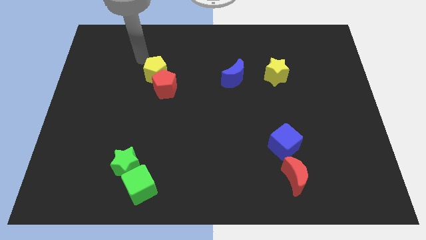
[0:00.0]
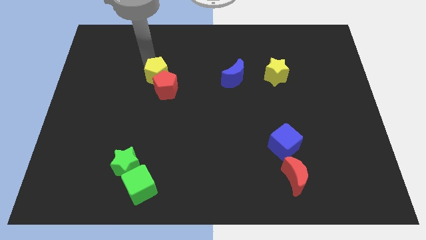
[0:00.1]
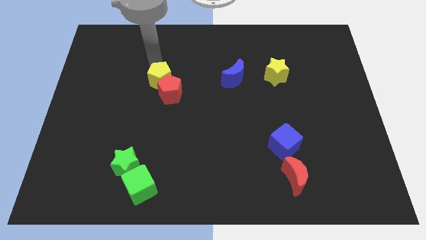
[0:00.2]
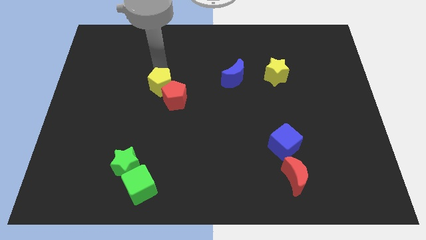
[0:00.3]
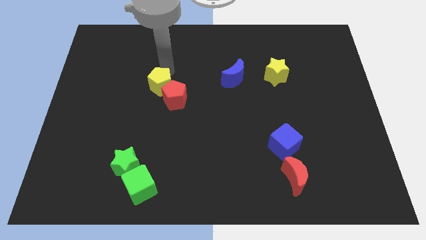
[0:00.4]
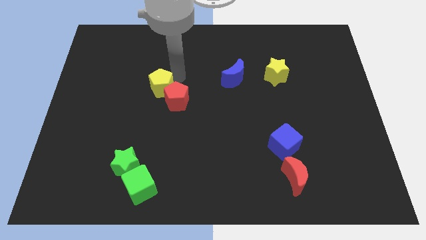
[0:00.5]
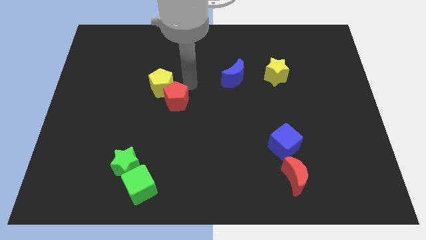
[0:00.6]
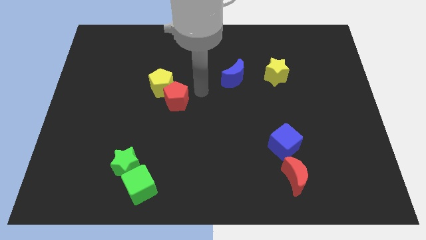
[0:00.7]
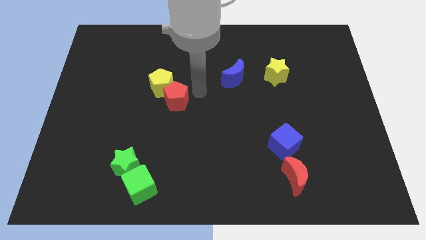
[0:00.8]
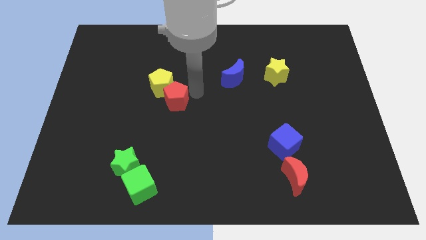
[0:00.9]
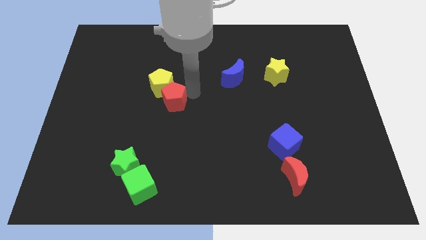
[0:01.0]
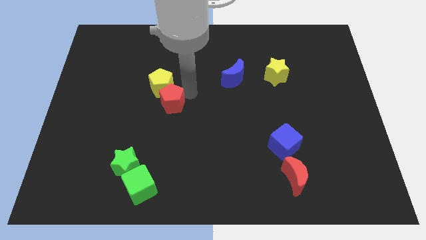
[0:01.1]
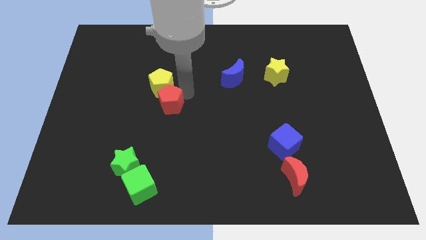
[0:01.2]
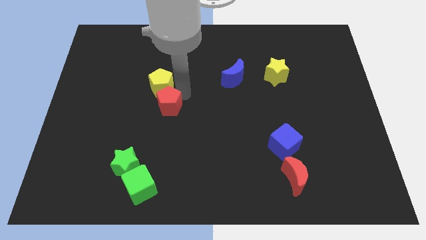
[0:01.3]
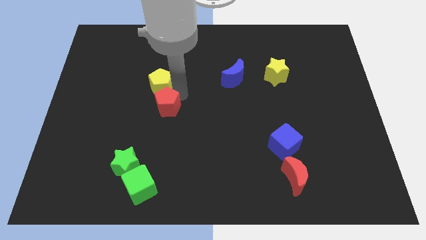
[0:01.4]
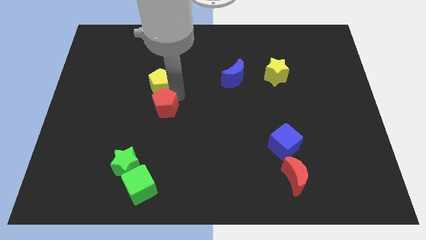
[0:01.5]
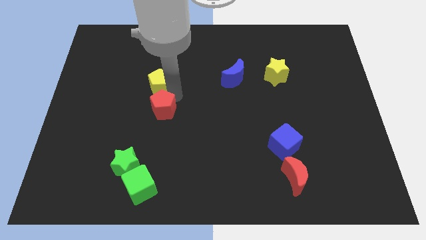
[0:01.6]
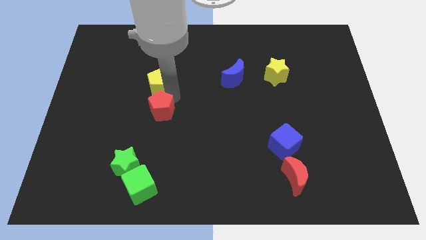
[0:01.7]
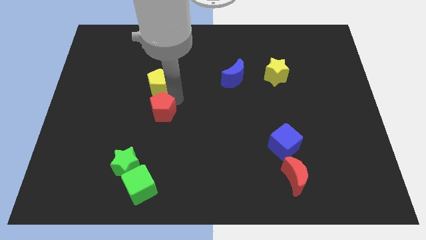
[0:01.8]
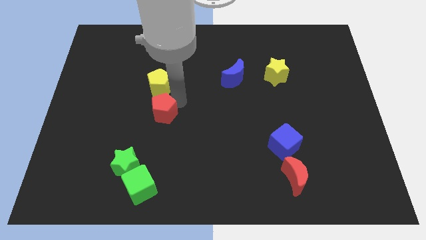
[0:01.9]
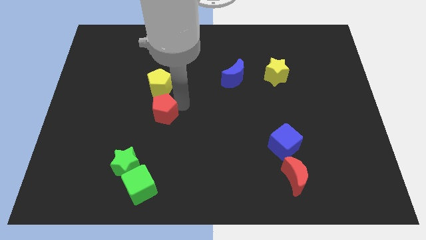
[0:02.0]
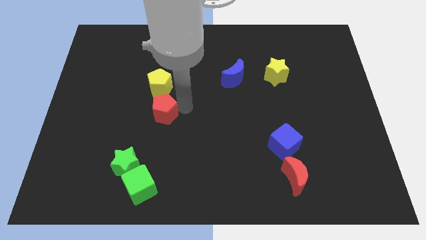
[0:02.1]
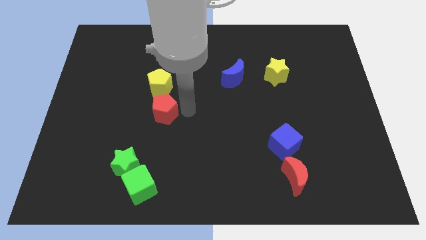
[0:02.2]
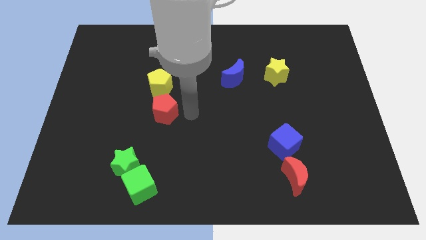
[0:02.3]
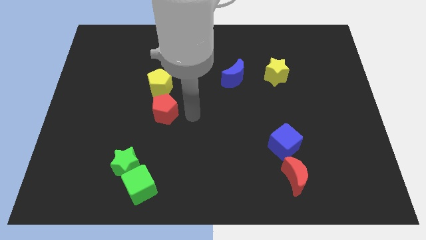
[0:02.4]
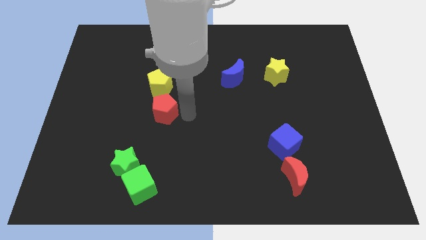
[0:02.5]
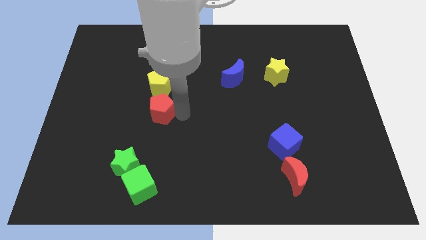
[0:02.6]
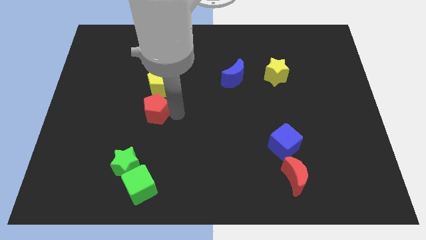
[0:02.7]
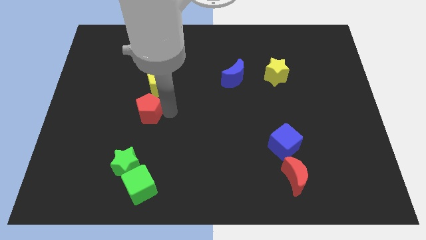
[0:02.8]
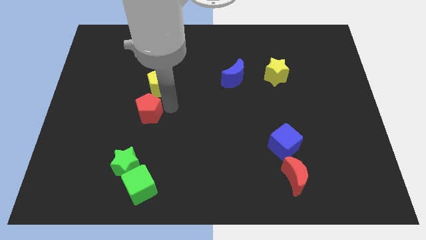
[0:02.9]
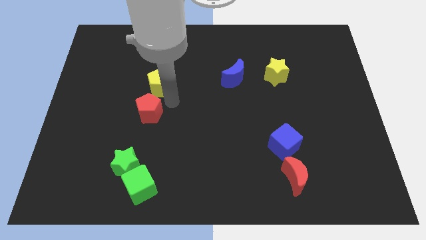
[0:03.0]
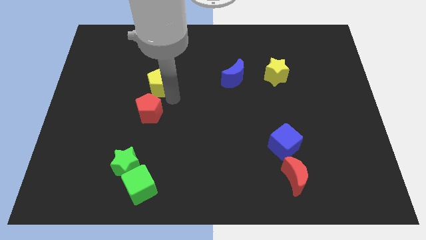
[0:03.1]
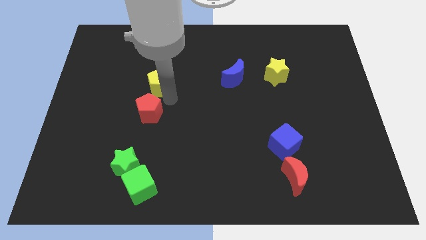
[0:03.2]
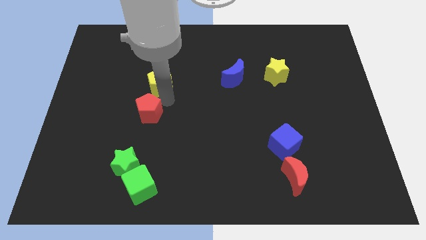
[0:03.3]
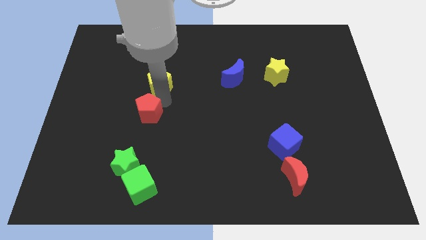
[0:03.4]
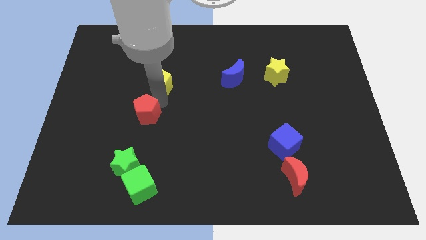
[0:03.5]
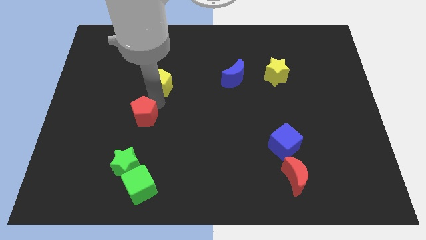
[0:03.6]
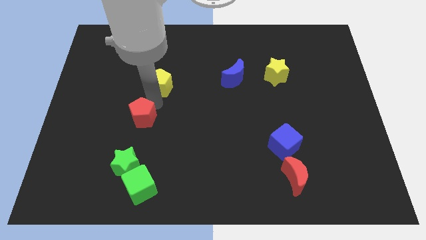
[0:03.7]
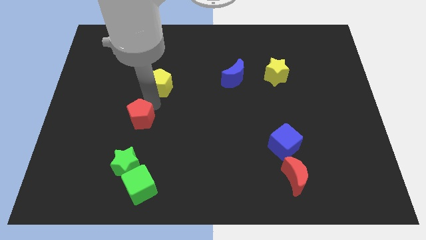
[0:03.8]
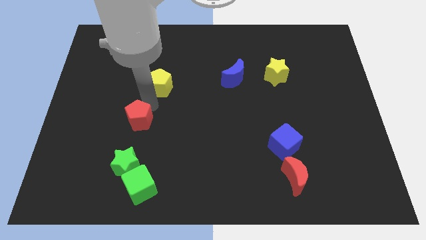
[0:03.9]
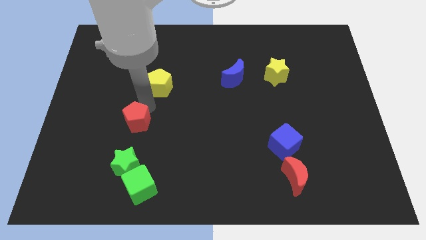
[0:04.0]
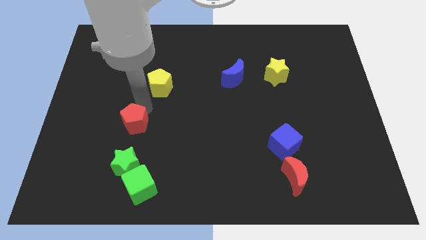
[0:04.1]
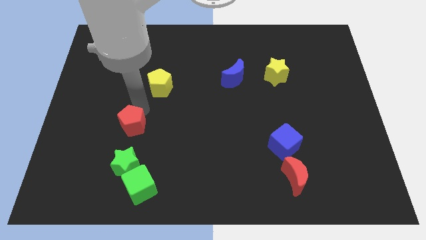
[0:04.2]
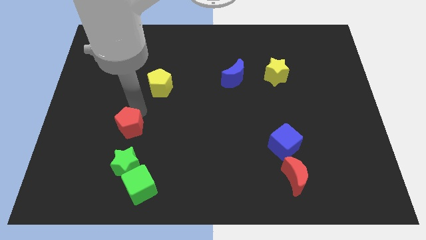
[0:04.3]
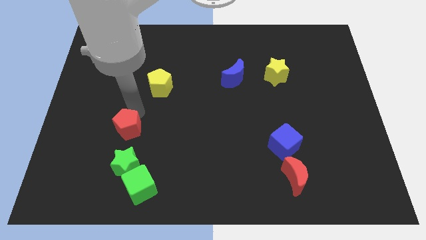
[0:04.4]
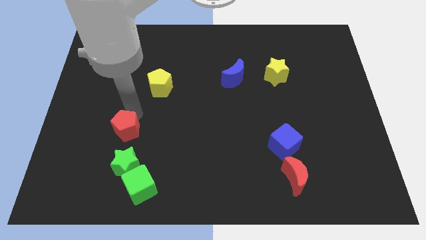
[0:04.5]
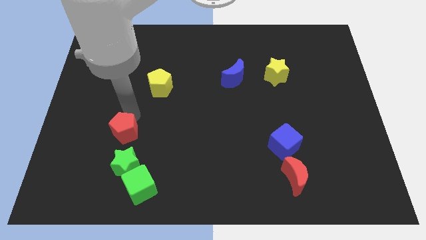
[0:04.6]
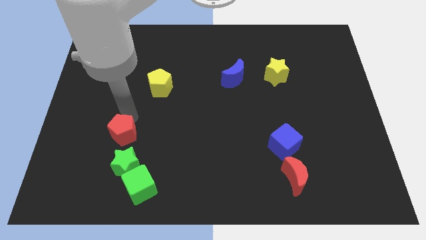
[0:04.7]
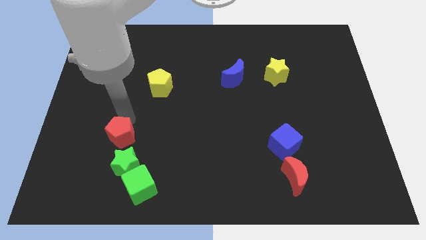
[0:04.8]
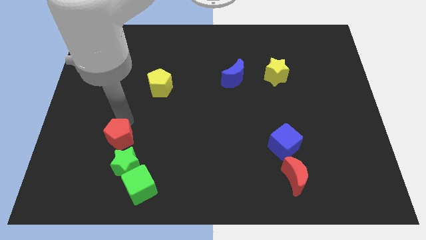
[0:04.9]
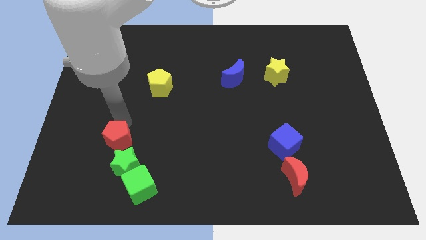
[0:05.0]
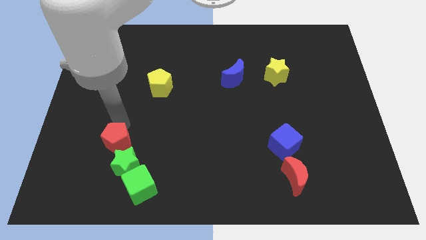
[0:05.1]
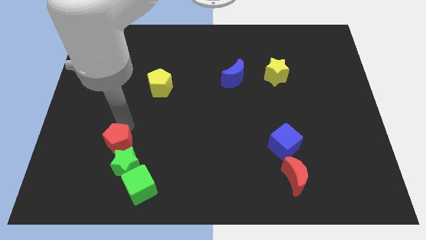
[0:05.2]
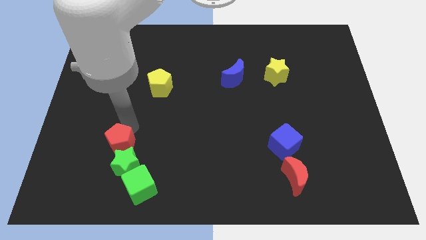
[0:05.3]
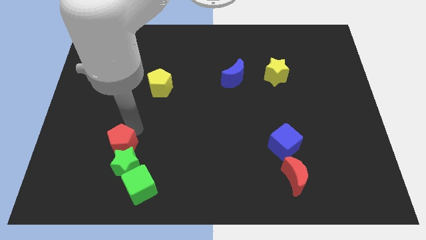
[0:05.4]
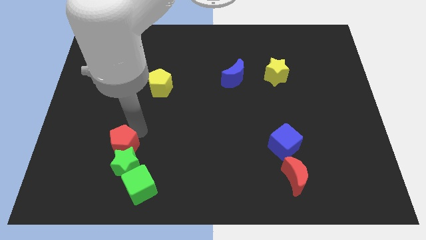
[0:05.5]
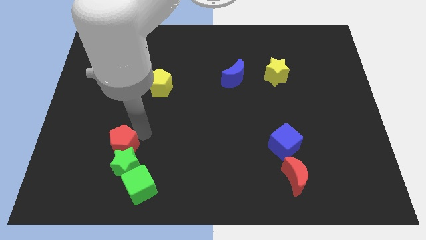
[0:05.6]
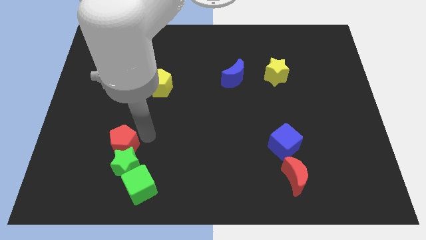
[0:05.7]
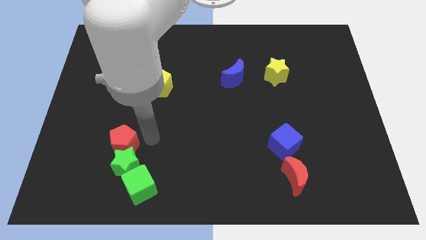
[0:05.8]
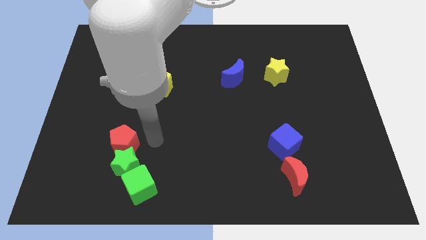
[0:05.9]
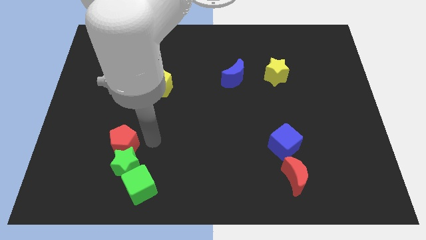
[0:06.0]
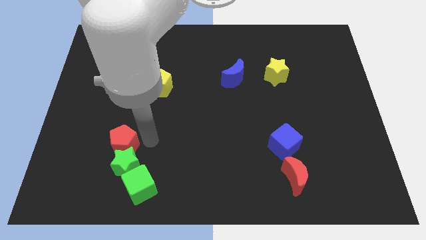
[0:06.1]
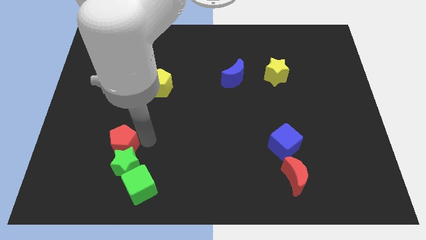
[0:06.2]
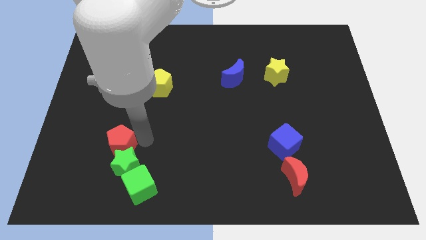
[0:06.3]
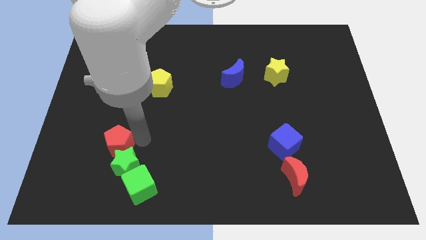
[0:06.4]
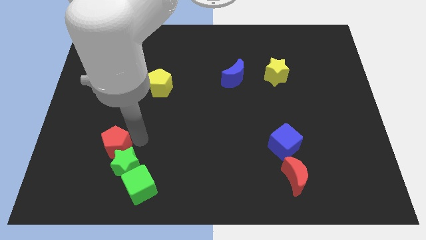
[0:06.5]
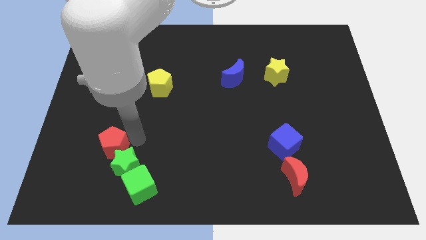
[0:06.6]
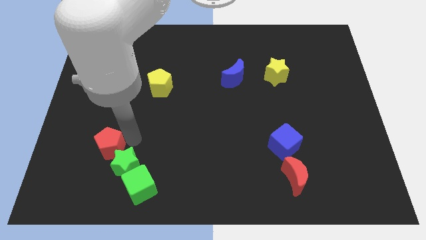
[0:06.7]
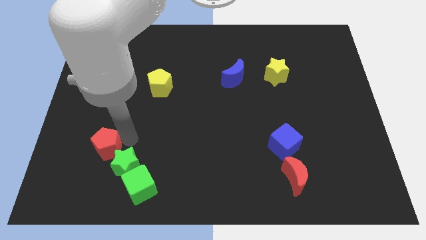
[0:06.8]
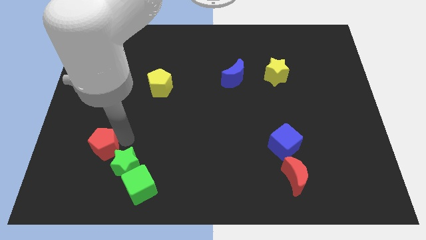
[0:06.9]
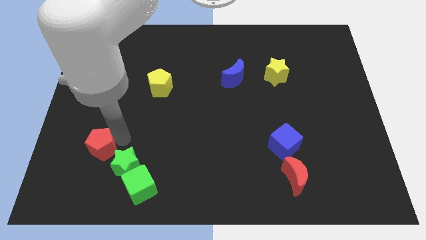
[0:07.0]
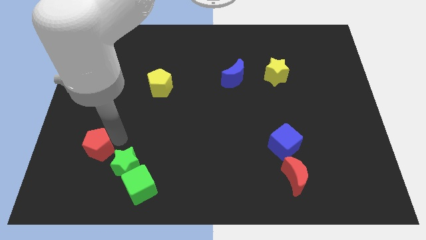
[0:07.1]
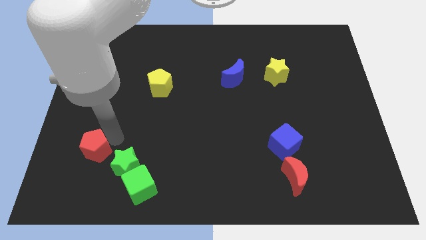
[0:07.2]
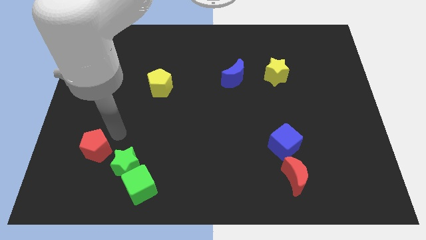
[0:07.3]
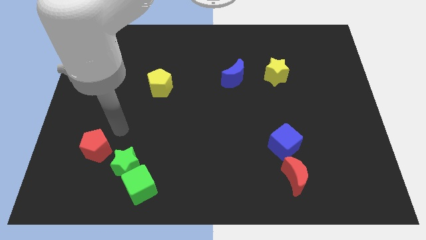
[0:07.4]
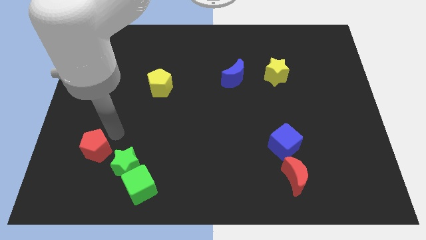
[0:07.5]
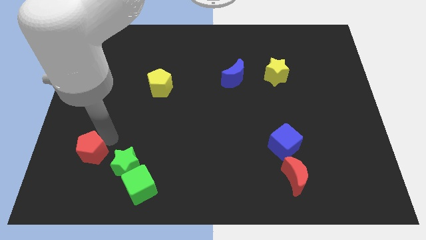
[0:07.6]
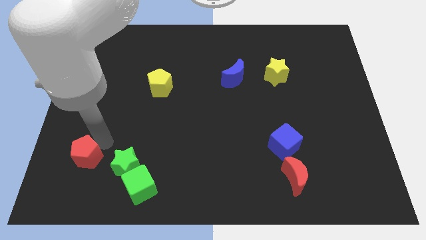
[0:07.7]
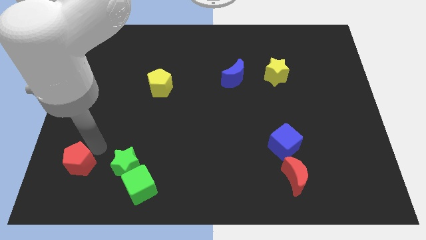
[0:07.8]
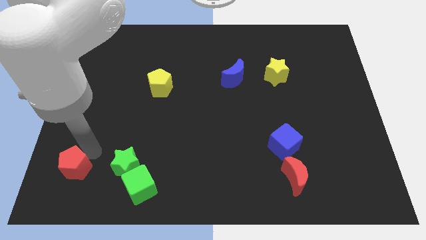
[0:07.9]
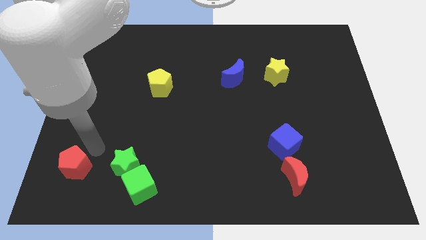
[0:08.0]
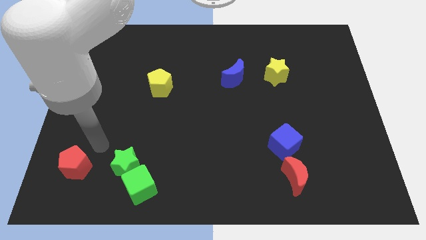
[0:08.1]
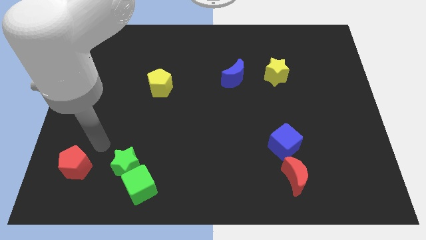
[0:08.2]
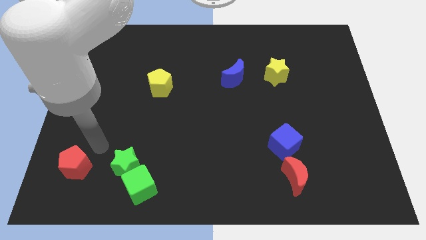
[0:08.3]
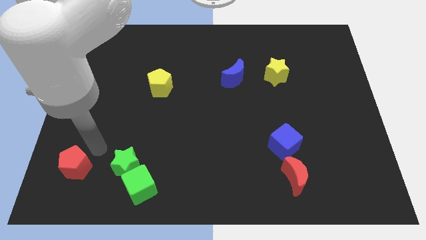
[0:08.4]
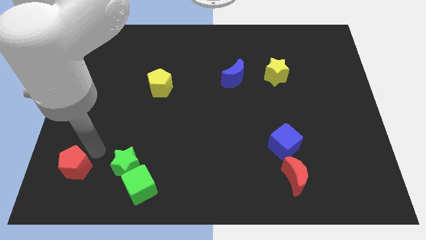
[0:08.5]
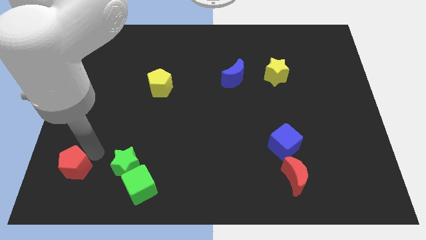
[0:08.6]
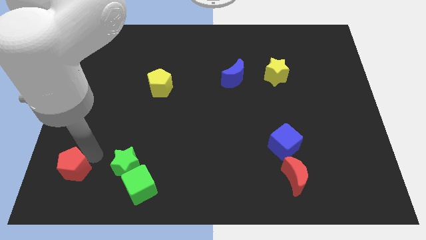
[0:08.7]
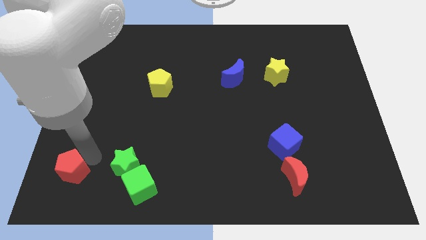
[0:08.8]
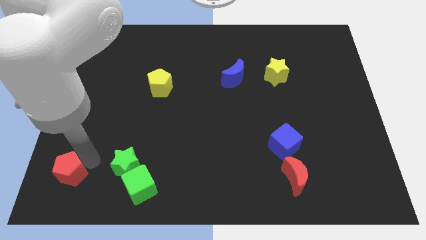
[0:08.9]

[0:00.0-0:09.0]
push the red pentagon to the lower left corner
